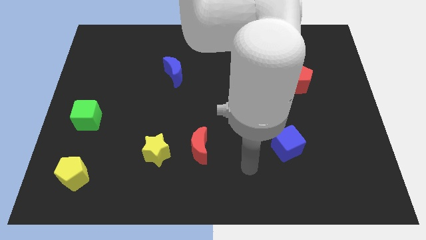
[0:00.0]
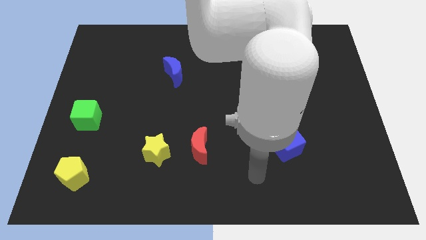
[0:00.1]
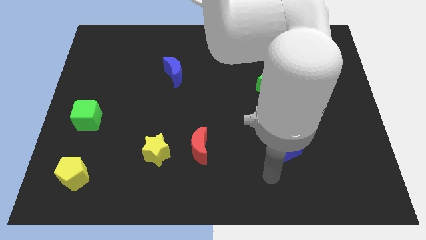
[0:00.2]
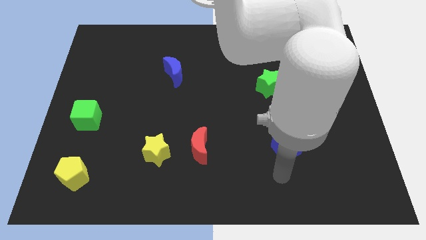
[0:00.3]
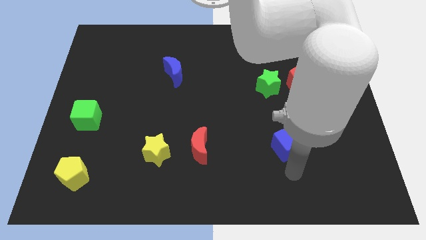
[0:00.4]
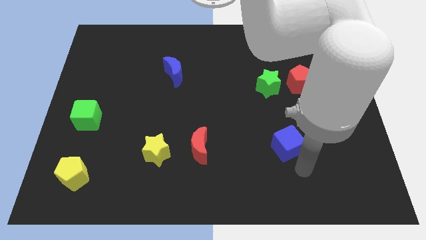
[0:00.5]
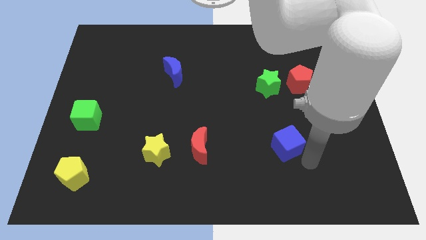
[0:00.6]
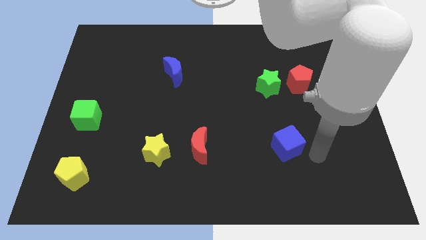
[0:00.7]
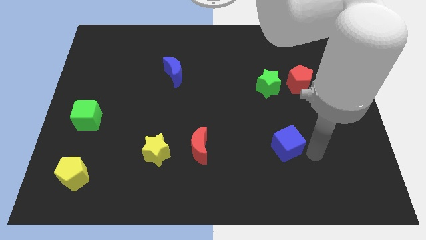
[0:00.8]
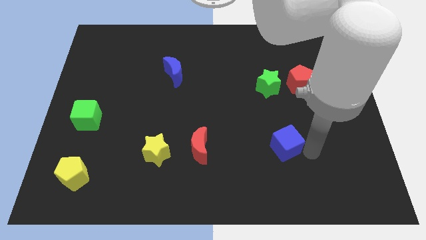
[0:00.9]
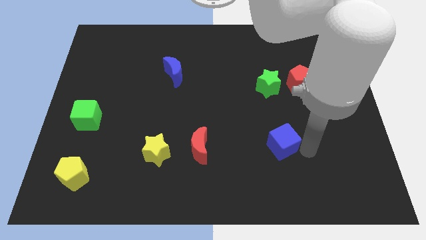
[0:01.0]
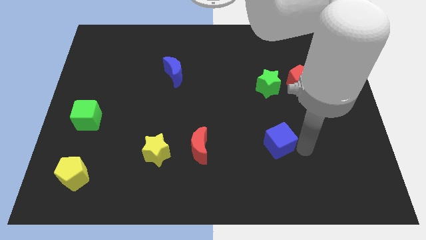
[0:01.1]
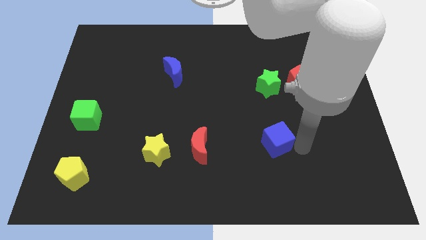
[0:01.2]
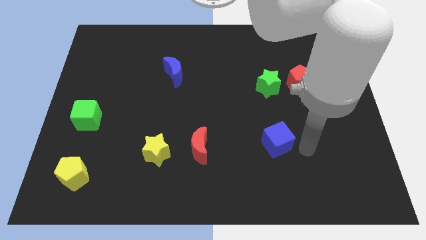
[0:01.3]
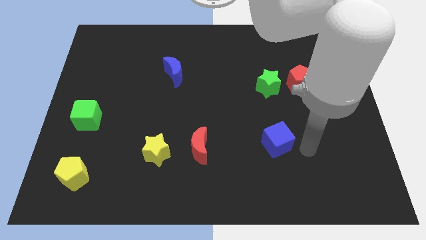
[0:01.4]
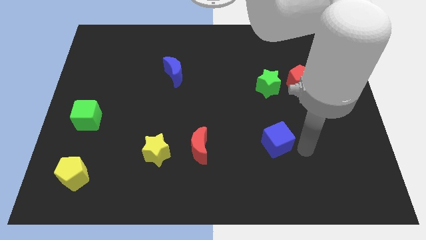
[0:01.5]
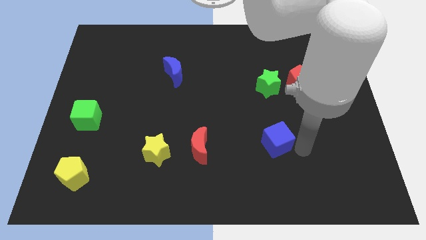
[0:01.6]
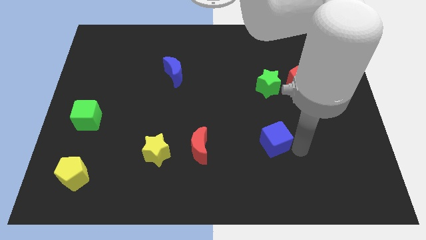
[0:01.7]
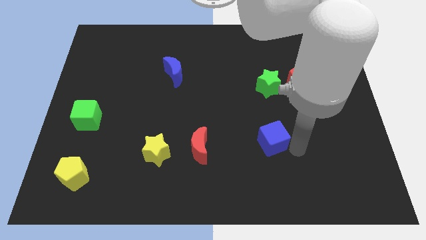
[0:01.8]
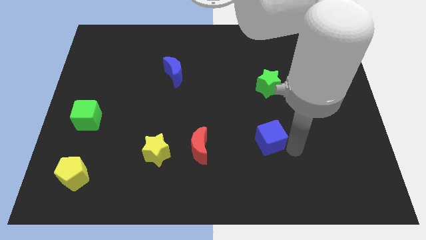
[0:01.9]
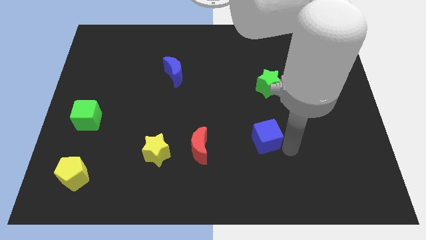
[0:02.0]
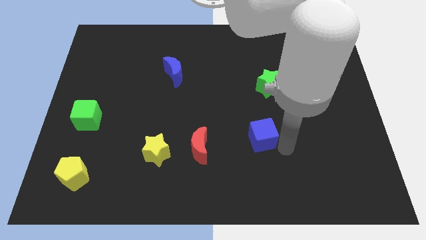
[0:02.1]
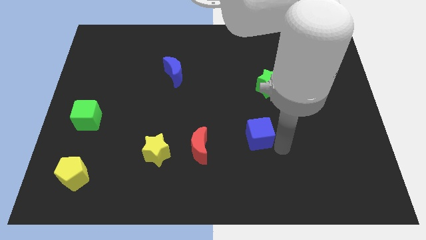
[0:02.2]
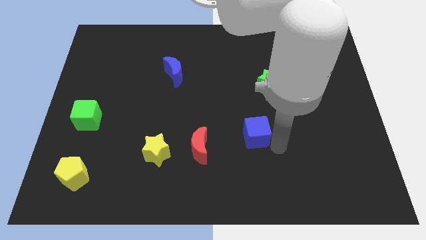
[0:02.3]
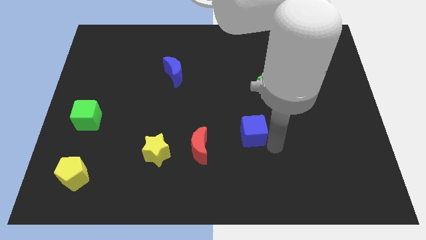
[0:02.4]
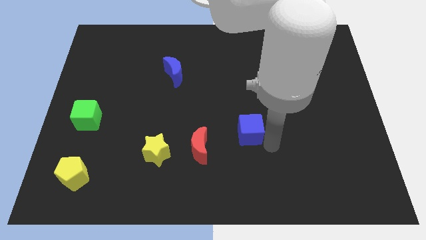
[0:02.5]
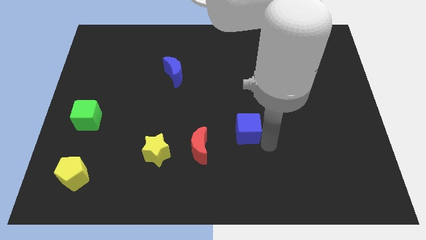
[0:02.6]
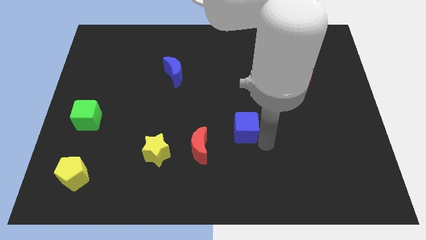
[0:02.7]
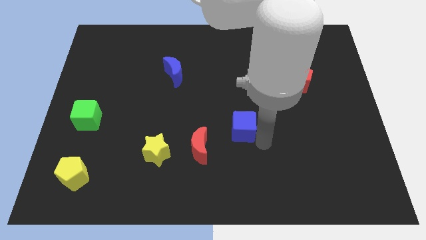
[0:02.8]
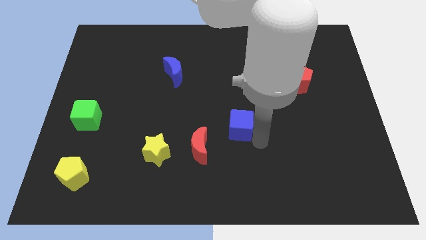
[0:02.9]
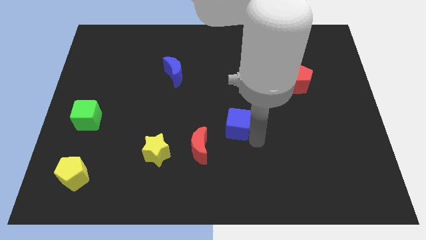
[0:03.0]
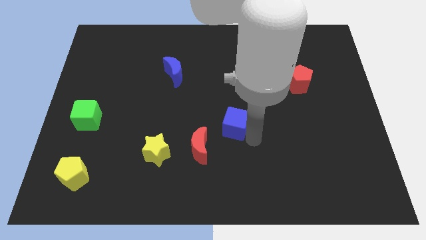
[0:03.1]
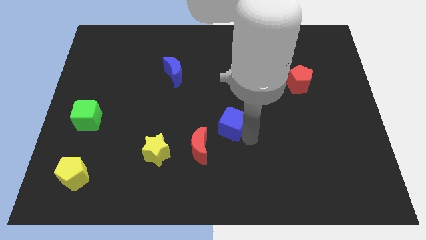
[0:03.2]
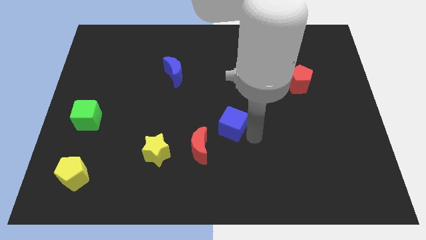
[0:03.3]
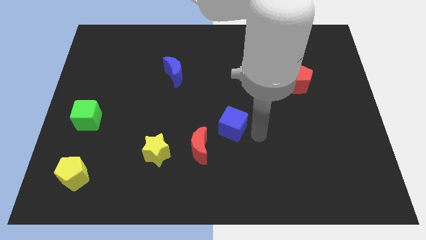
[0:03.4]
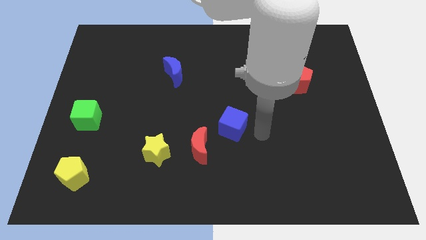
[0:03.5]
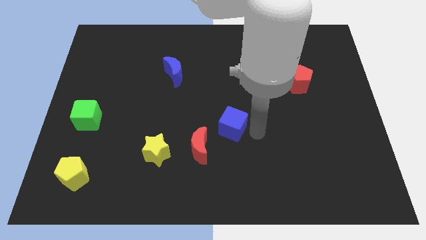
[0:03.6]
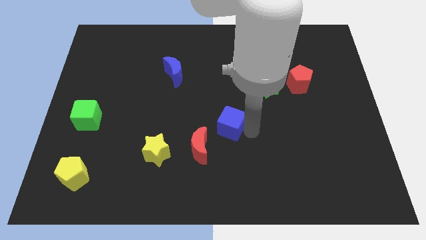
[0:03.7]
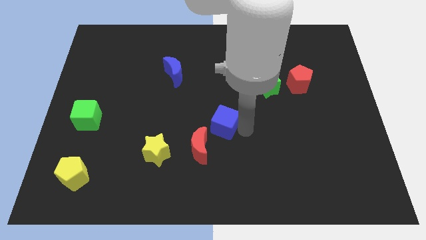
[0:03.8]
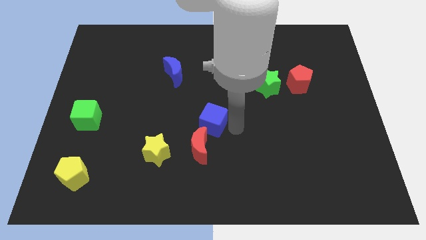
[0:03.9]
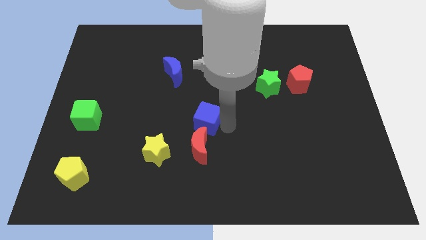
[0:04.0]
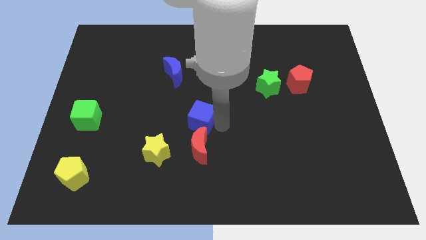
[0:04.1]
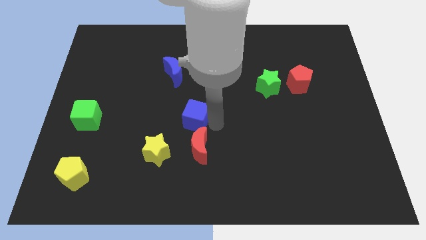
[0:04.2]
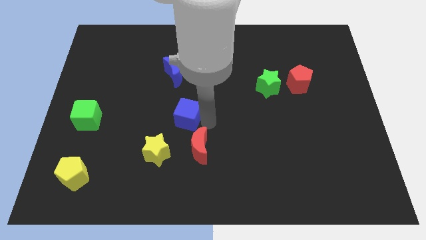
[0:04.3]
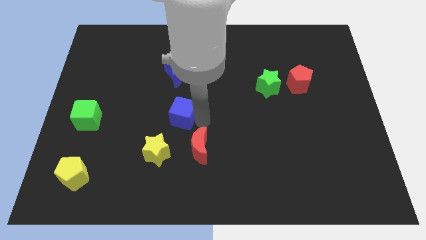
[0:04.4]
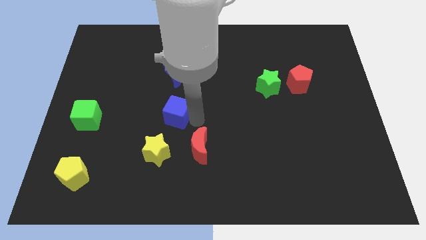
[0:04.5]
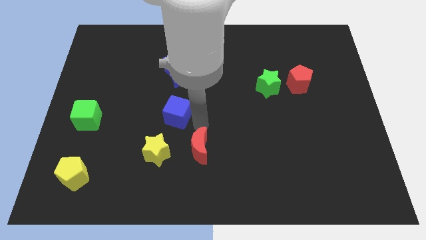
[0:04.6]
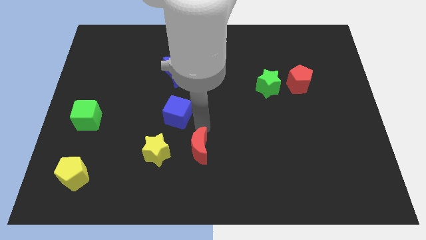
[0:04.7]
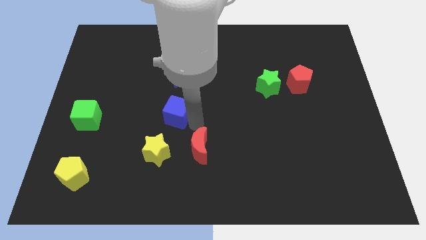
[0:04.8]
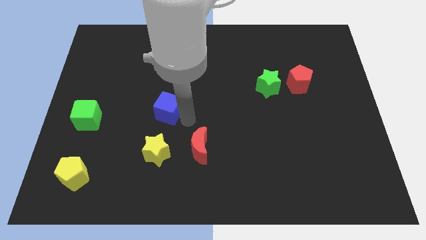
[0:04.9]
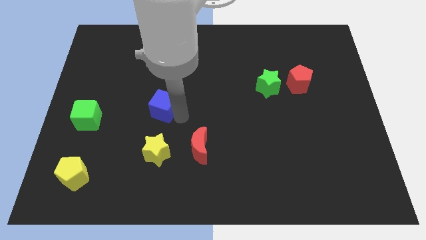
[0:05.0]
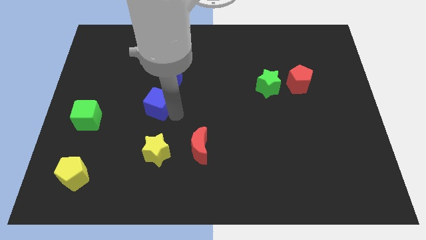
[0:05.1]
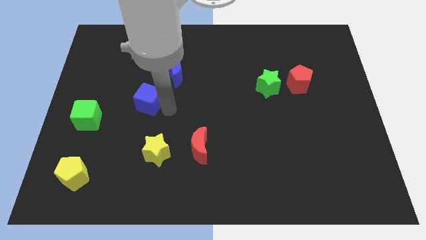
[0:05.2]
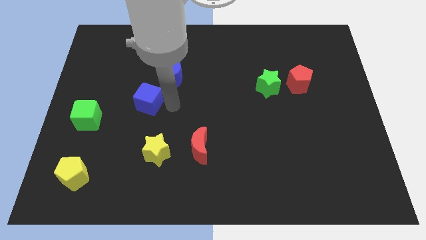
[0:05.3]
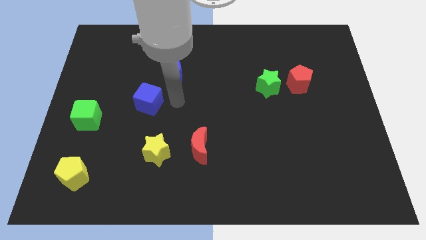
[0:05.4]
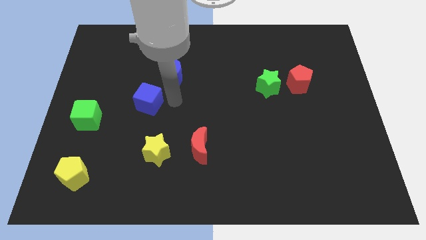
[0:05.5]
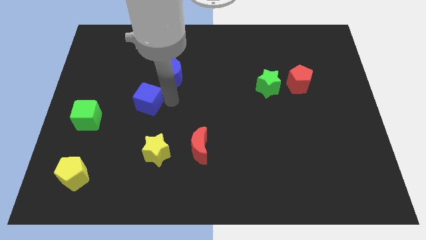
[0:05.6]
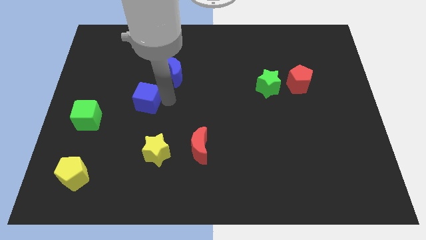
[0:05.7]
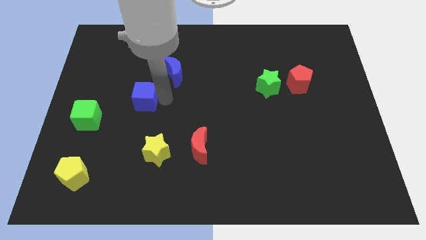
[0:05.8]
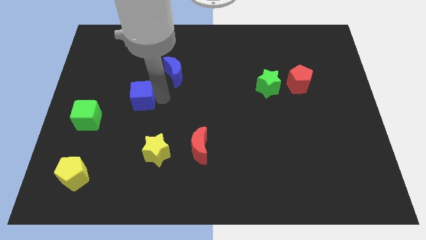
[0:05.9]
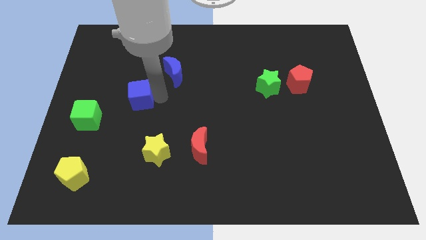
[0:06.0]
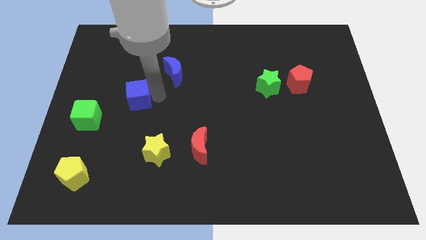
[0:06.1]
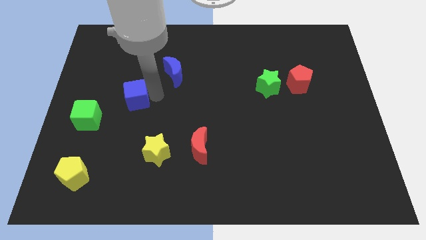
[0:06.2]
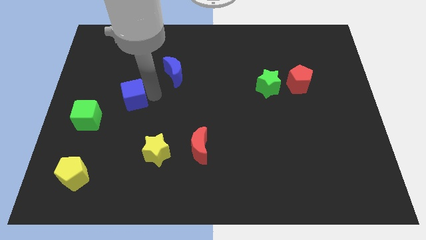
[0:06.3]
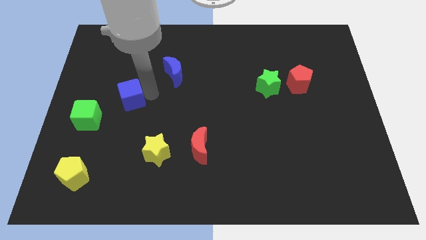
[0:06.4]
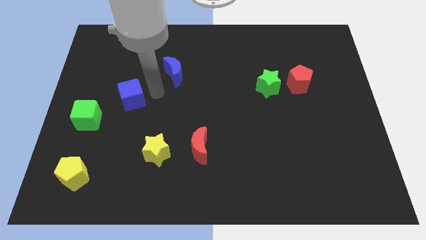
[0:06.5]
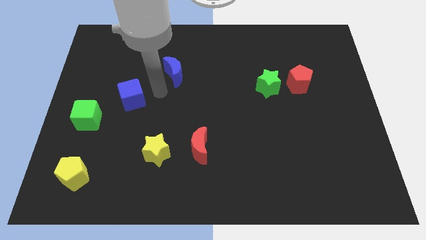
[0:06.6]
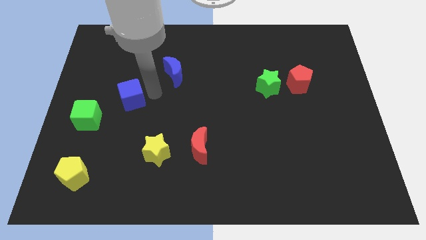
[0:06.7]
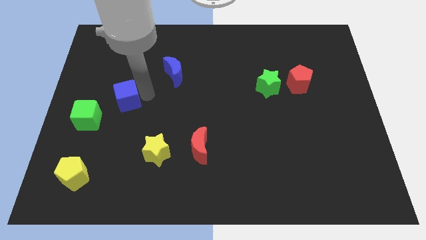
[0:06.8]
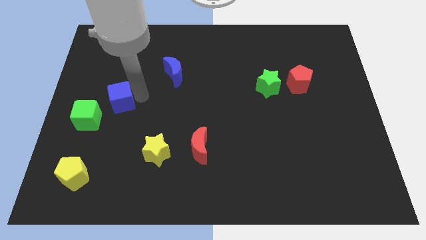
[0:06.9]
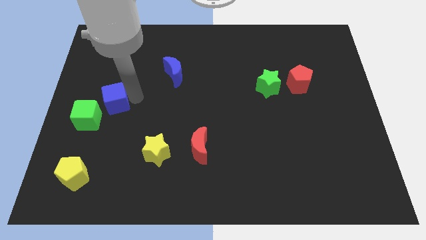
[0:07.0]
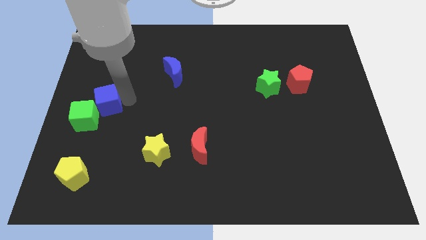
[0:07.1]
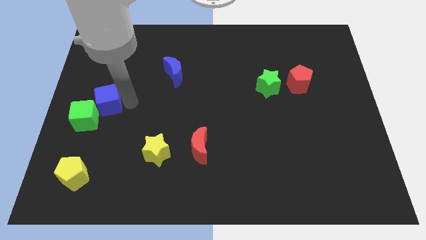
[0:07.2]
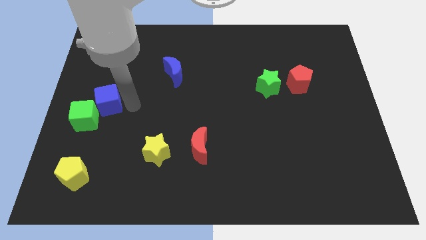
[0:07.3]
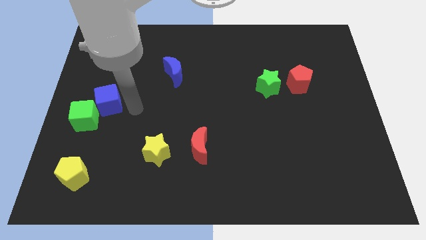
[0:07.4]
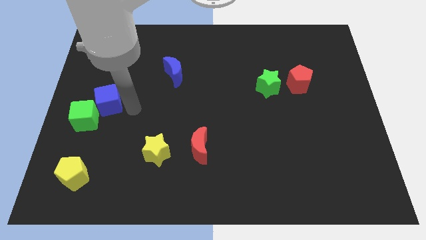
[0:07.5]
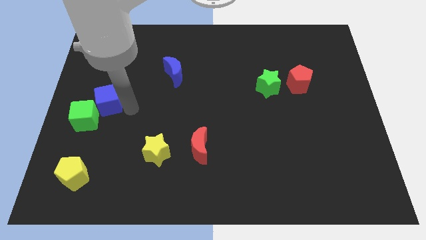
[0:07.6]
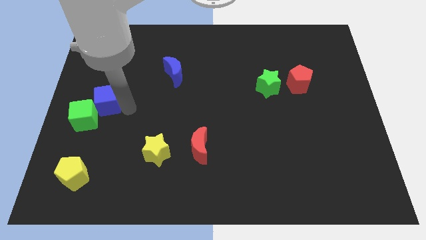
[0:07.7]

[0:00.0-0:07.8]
move the blue cube to the center left

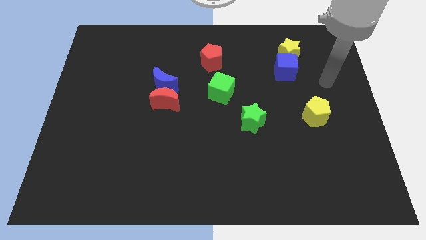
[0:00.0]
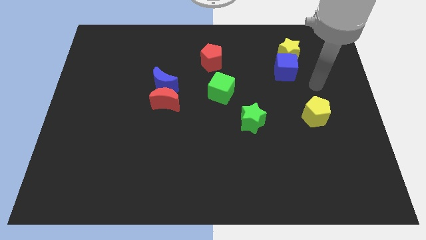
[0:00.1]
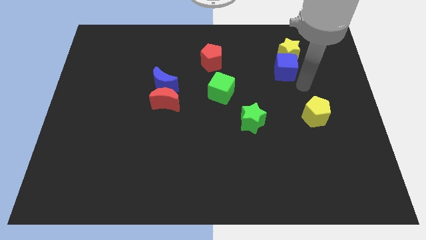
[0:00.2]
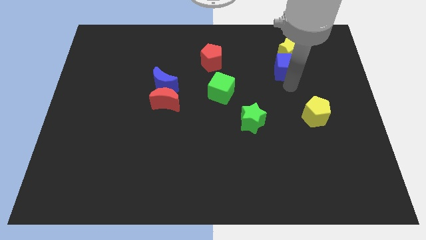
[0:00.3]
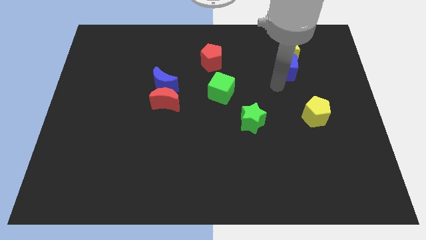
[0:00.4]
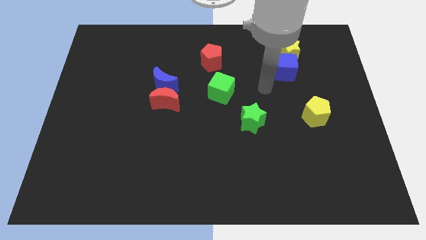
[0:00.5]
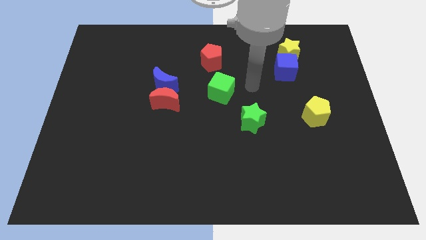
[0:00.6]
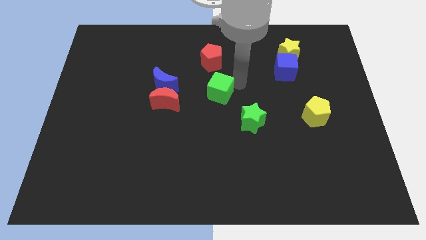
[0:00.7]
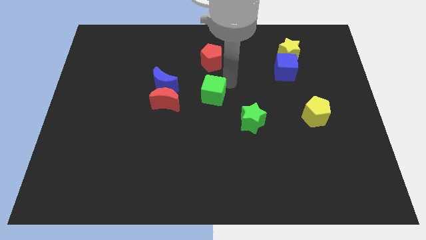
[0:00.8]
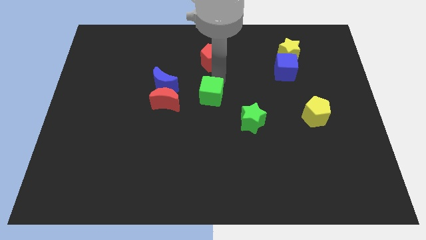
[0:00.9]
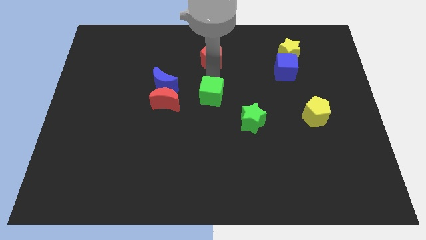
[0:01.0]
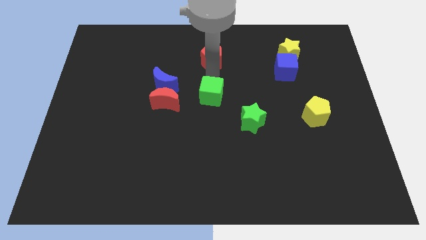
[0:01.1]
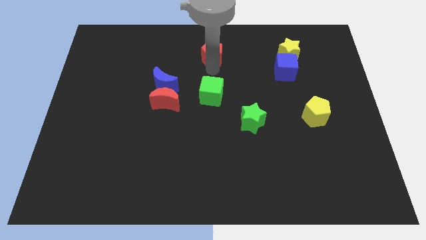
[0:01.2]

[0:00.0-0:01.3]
push the red pentagon to the top side
